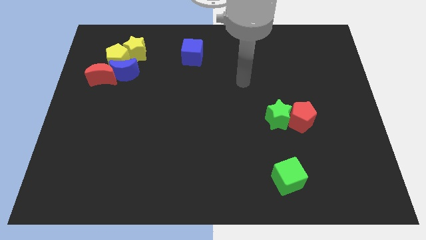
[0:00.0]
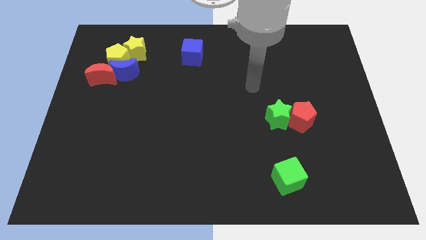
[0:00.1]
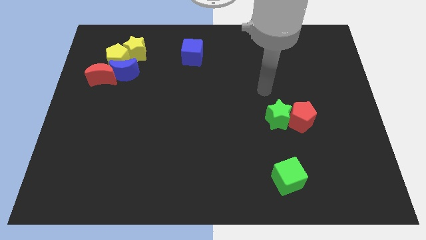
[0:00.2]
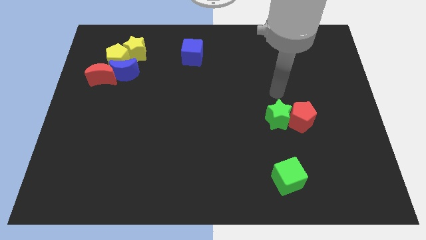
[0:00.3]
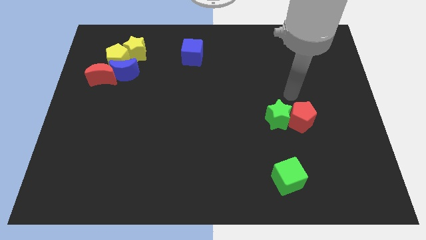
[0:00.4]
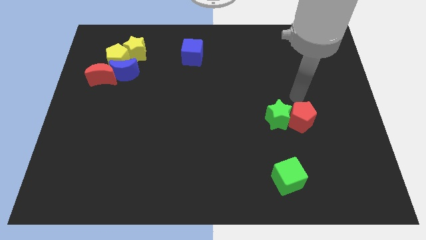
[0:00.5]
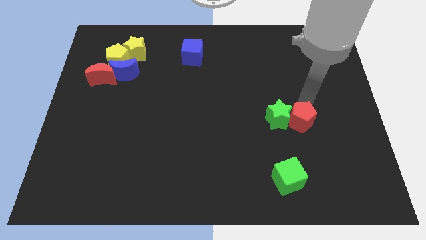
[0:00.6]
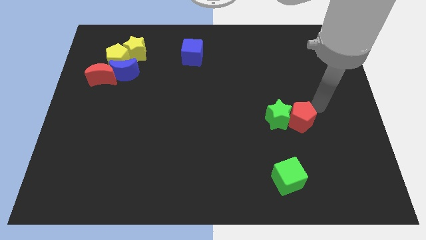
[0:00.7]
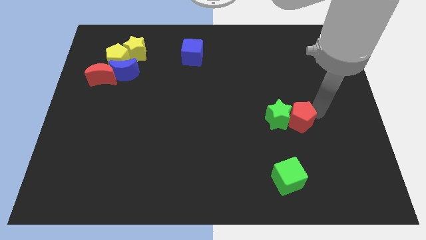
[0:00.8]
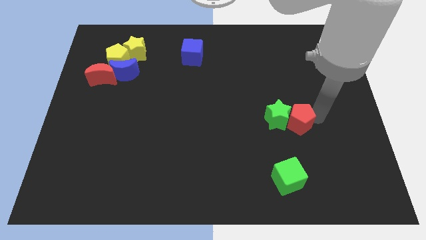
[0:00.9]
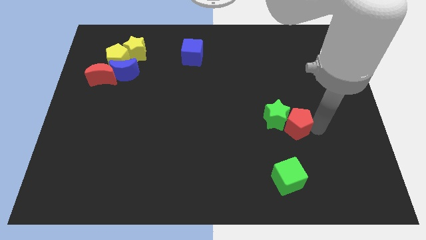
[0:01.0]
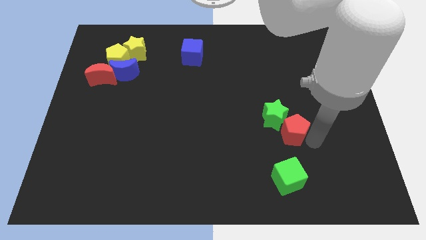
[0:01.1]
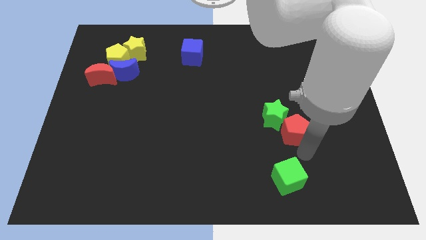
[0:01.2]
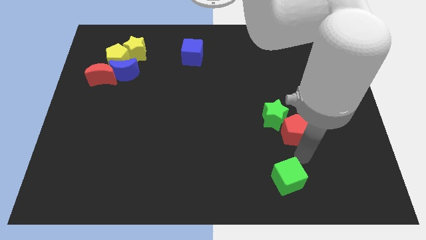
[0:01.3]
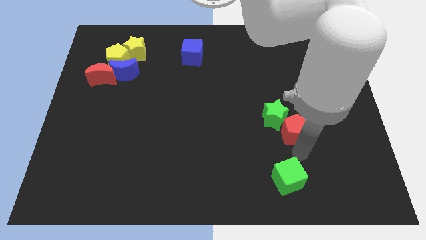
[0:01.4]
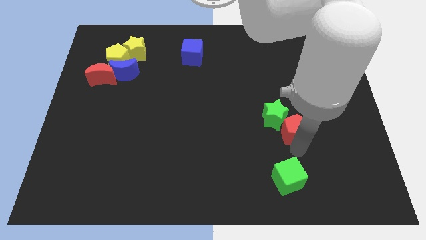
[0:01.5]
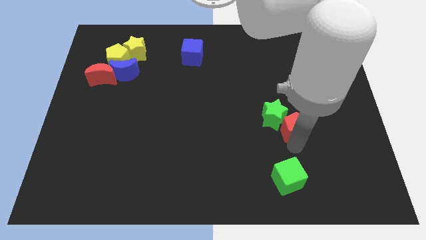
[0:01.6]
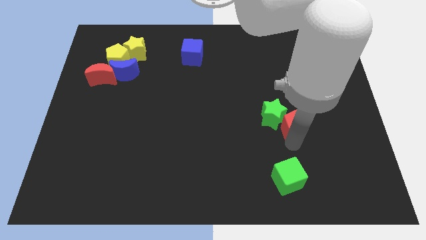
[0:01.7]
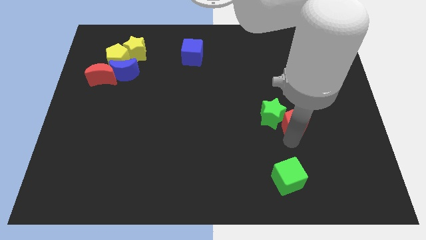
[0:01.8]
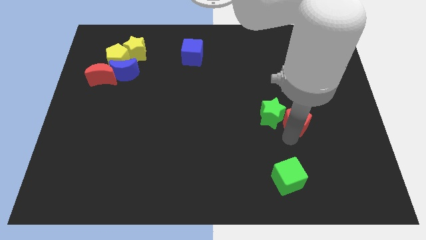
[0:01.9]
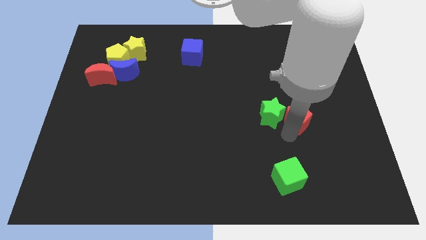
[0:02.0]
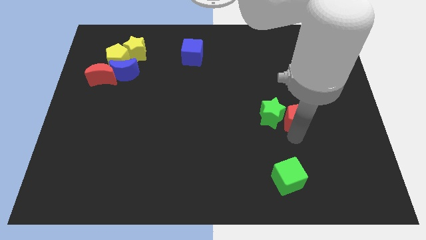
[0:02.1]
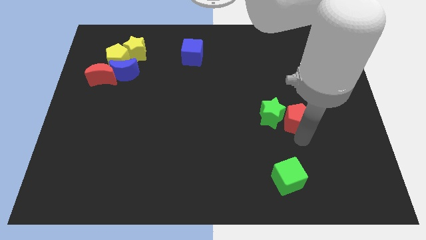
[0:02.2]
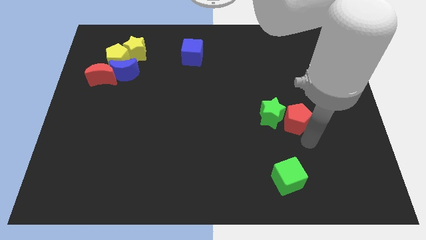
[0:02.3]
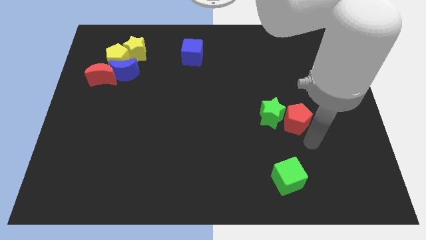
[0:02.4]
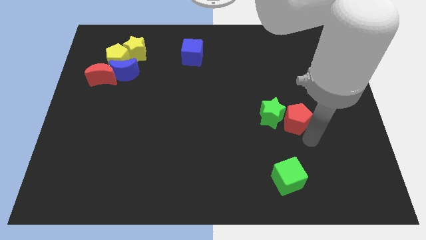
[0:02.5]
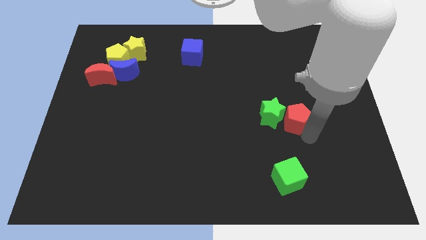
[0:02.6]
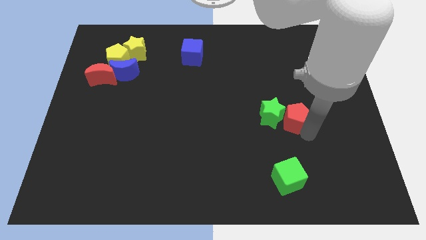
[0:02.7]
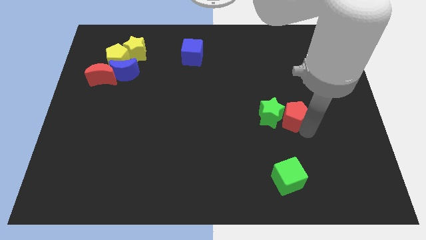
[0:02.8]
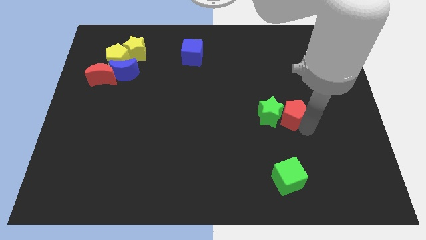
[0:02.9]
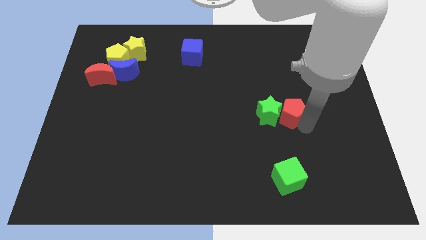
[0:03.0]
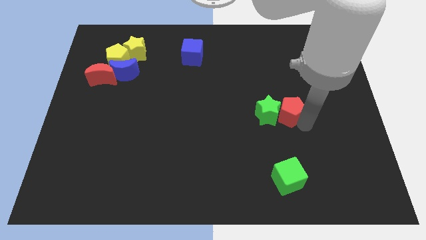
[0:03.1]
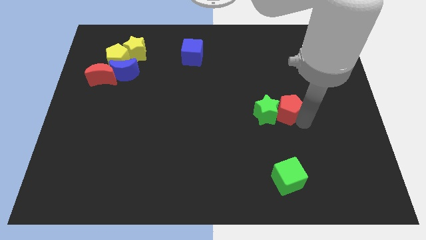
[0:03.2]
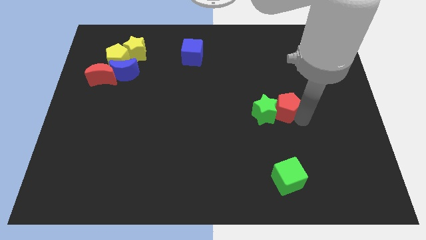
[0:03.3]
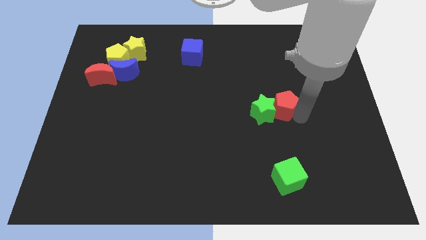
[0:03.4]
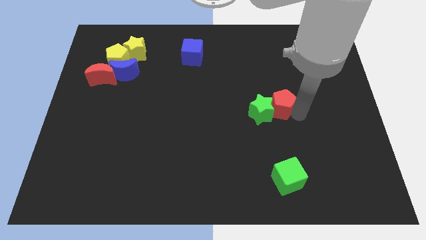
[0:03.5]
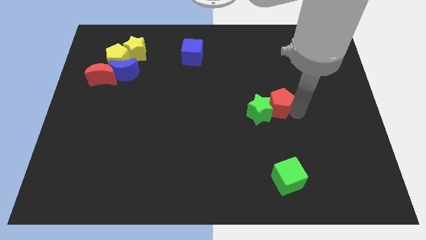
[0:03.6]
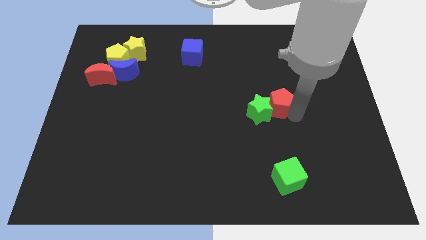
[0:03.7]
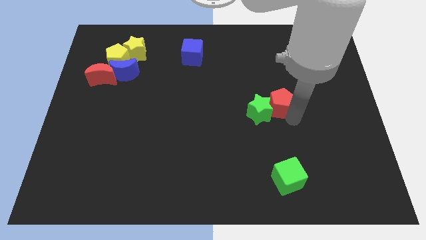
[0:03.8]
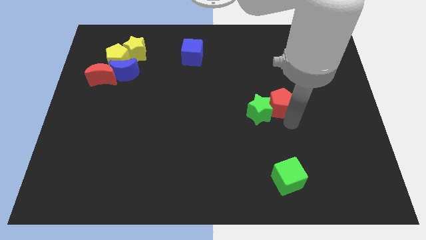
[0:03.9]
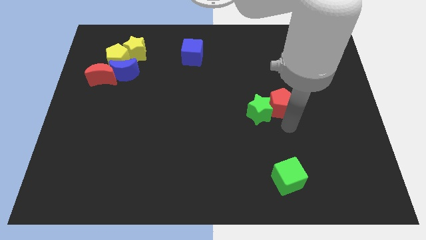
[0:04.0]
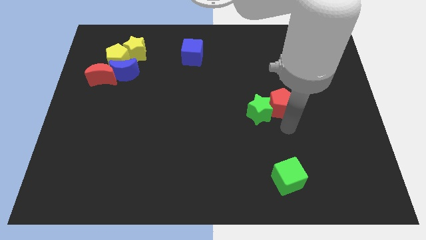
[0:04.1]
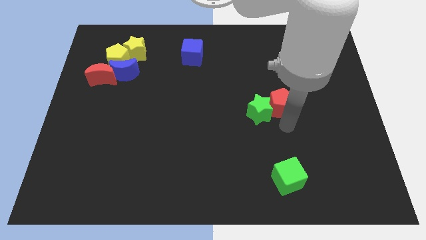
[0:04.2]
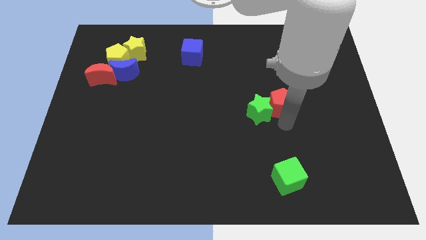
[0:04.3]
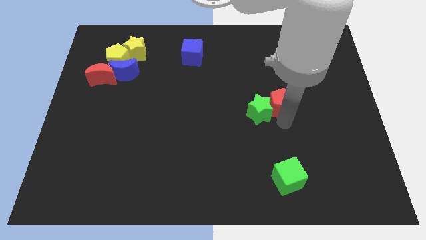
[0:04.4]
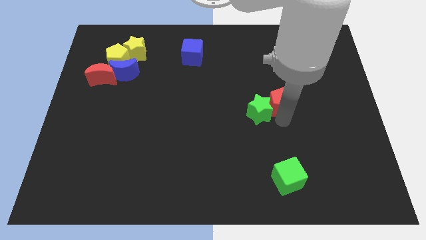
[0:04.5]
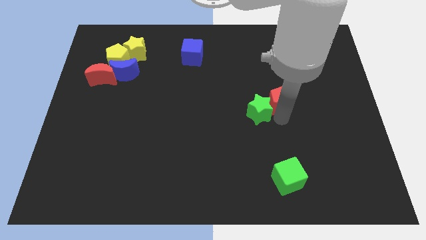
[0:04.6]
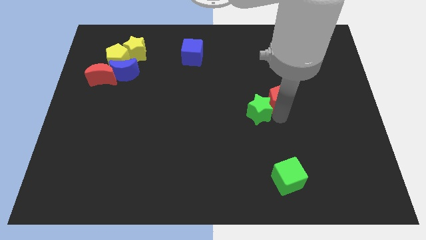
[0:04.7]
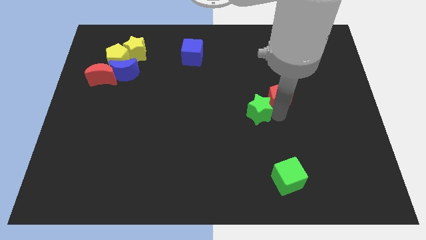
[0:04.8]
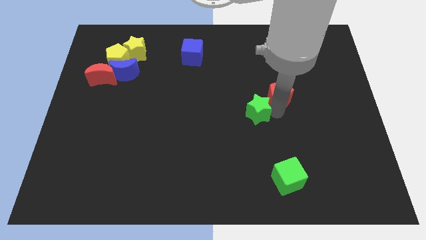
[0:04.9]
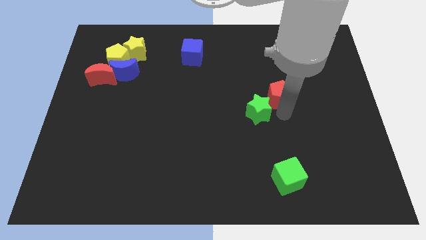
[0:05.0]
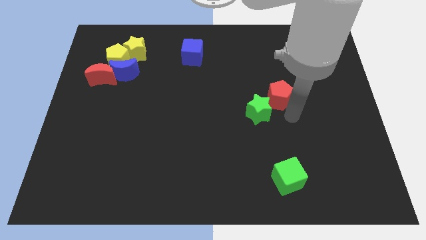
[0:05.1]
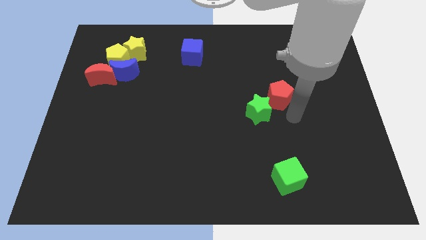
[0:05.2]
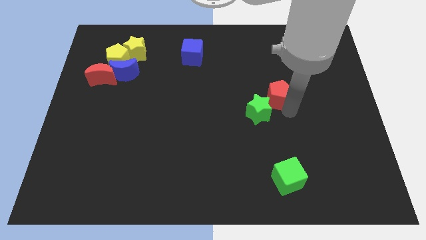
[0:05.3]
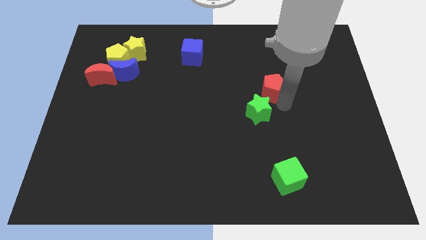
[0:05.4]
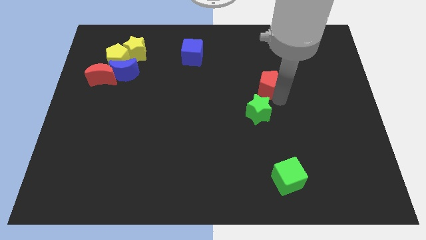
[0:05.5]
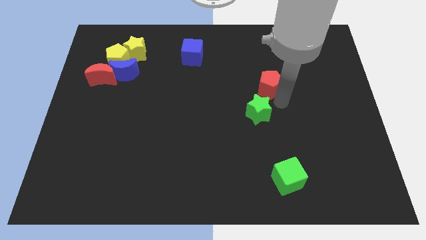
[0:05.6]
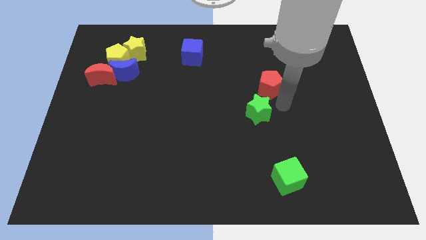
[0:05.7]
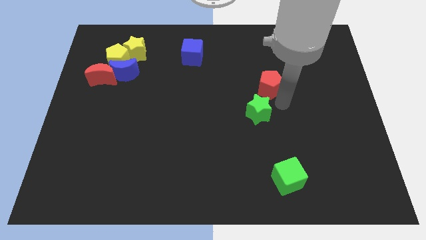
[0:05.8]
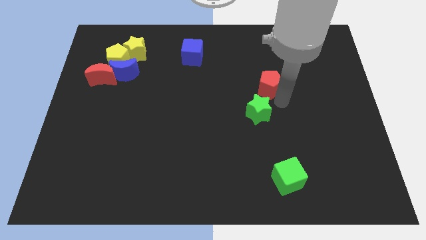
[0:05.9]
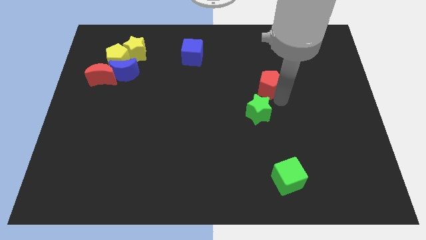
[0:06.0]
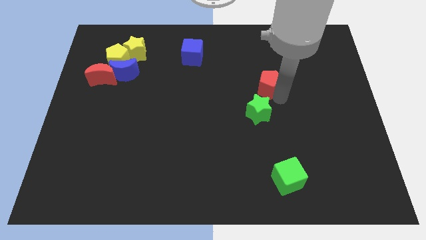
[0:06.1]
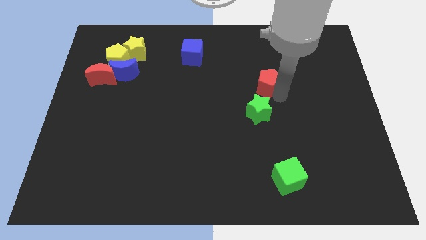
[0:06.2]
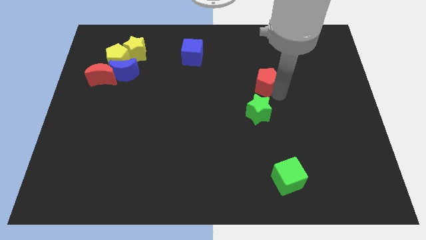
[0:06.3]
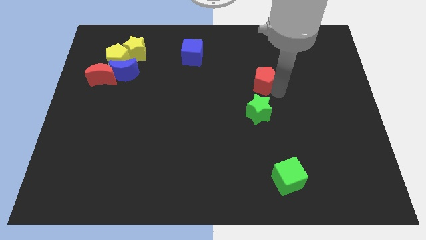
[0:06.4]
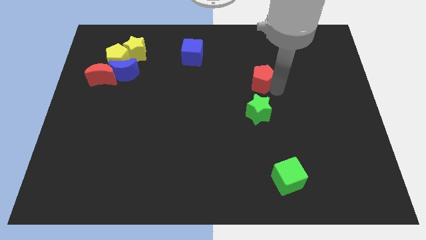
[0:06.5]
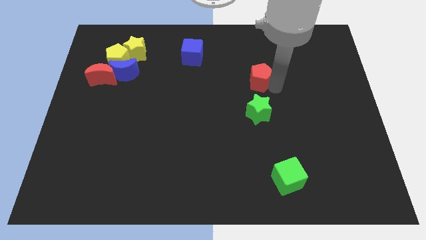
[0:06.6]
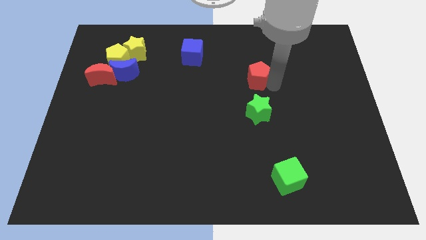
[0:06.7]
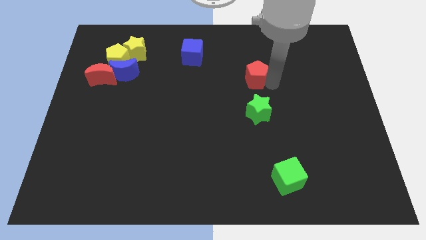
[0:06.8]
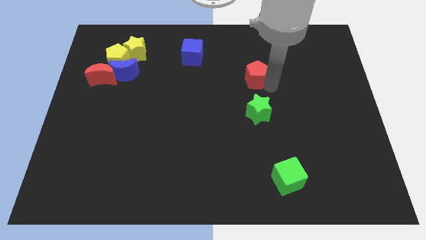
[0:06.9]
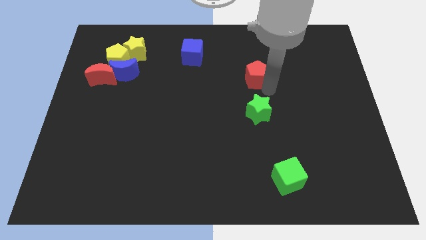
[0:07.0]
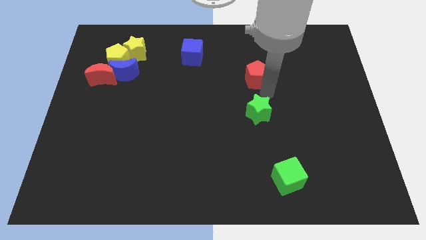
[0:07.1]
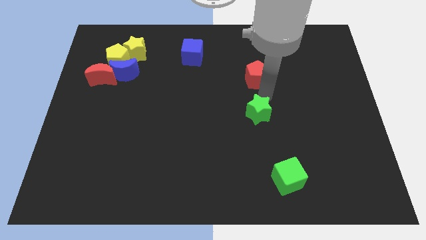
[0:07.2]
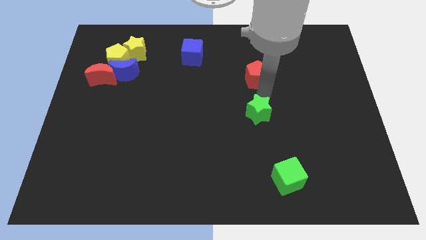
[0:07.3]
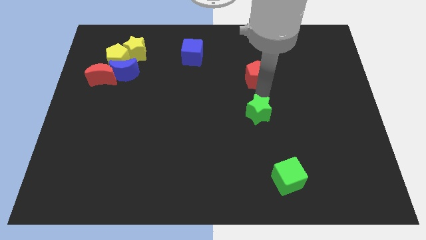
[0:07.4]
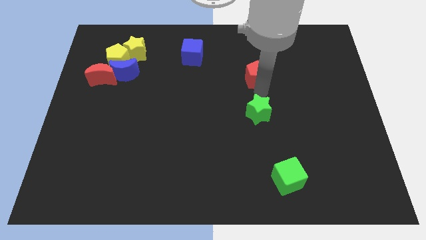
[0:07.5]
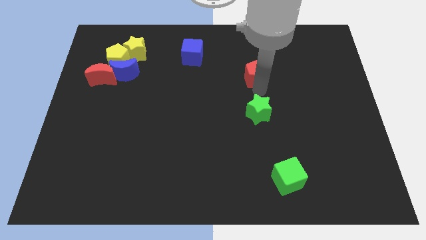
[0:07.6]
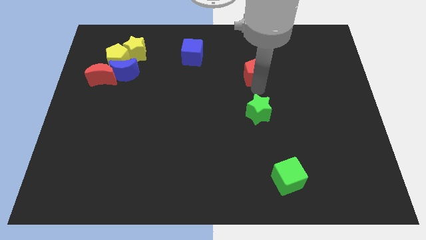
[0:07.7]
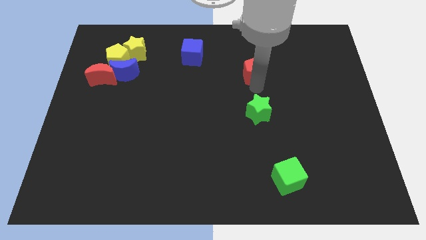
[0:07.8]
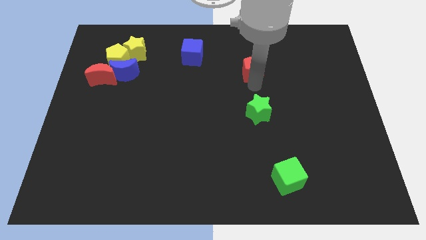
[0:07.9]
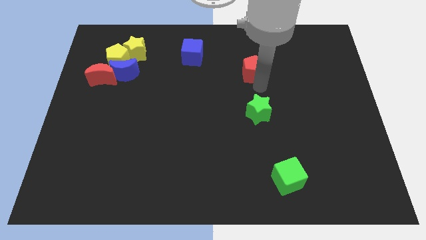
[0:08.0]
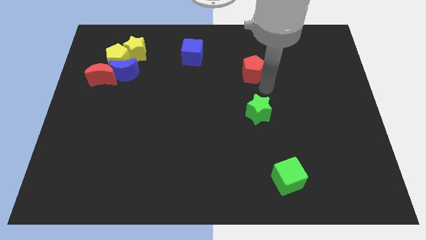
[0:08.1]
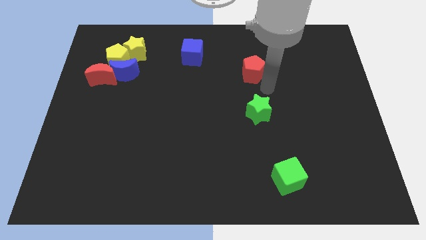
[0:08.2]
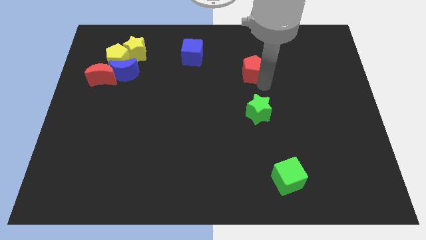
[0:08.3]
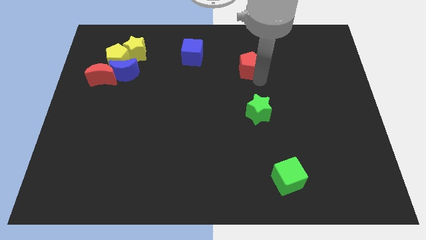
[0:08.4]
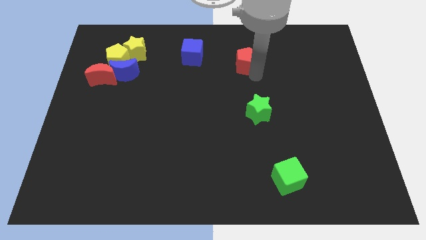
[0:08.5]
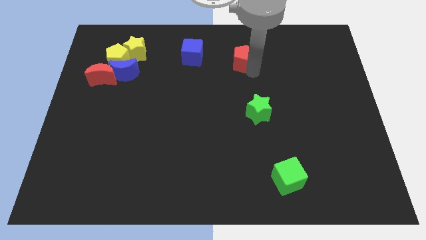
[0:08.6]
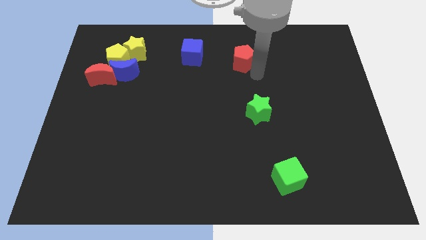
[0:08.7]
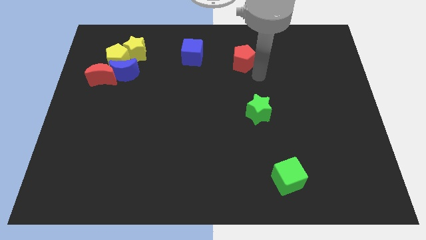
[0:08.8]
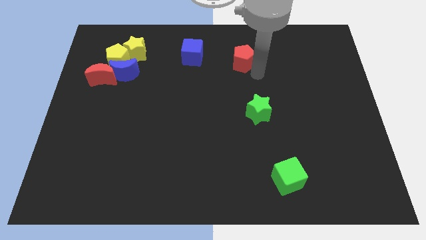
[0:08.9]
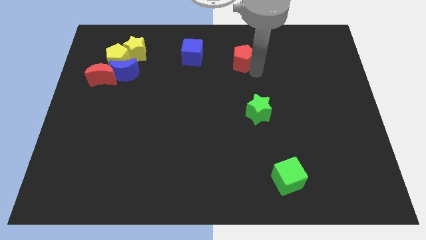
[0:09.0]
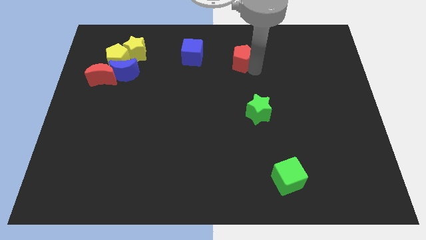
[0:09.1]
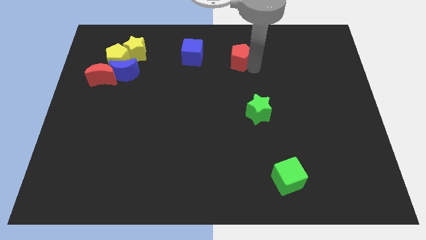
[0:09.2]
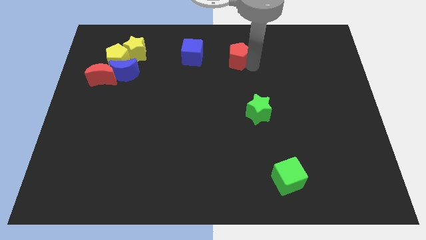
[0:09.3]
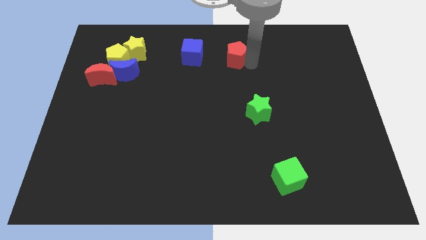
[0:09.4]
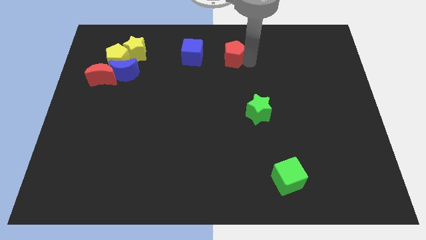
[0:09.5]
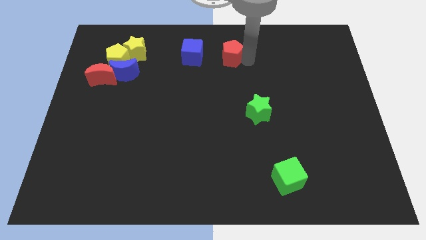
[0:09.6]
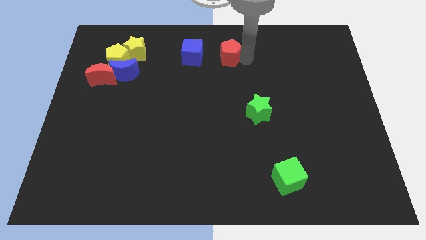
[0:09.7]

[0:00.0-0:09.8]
move the red pentagon to the towards your base
